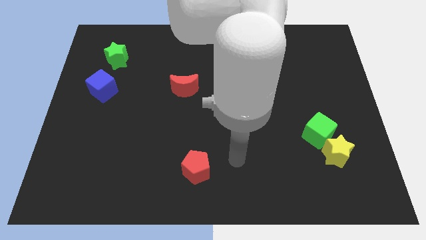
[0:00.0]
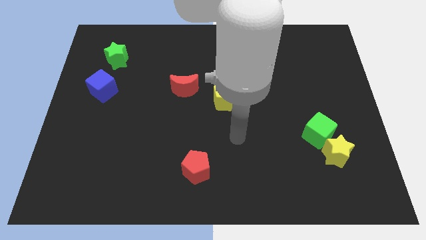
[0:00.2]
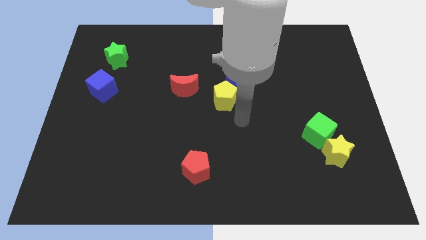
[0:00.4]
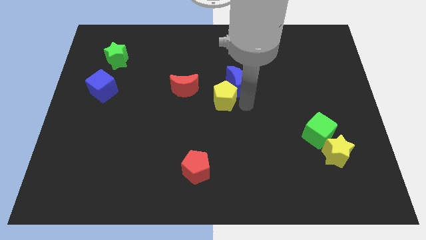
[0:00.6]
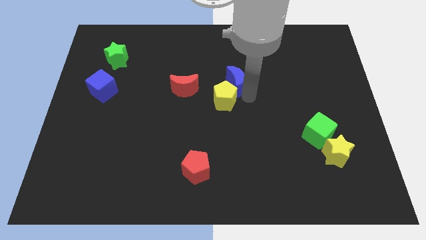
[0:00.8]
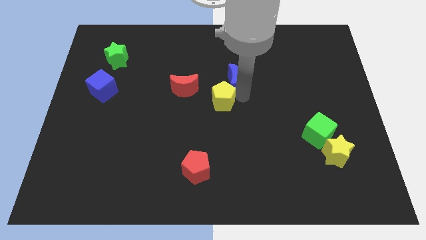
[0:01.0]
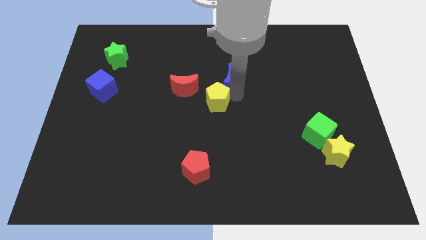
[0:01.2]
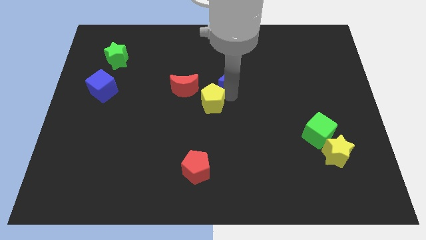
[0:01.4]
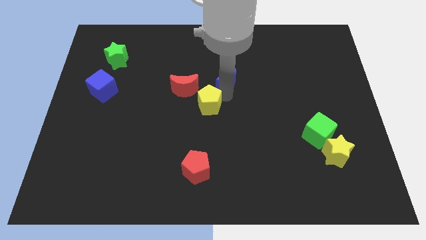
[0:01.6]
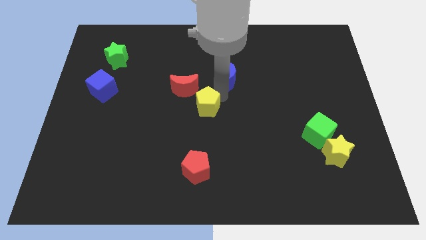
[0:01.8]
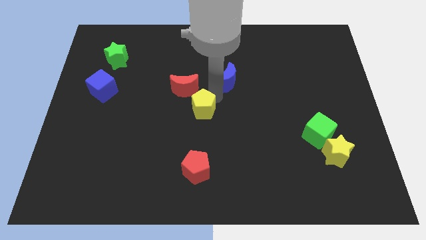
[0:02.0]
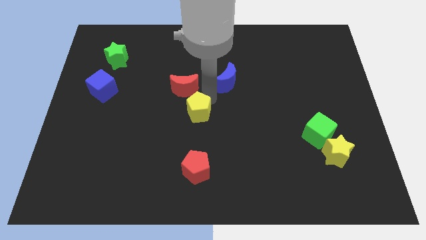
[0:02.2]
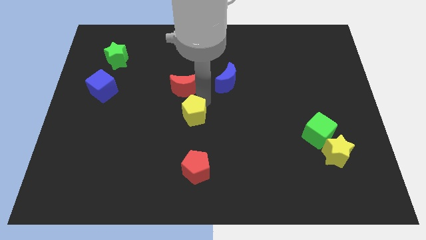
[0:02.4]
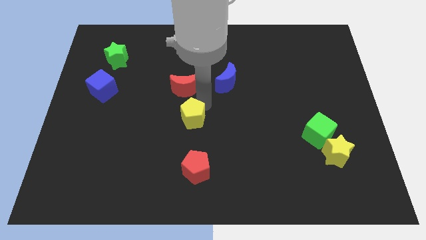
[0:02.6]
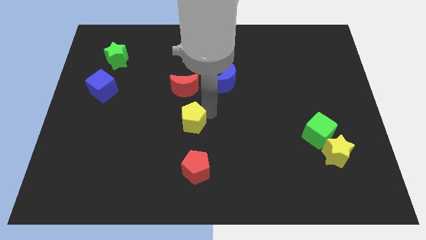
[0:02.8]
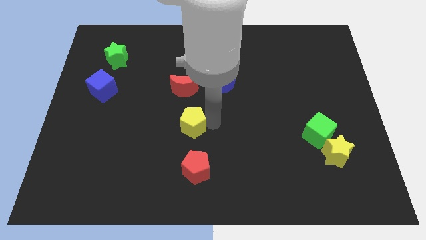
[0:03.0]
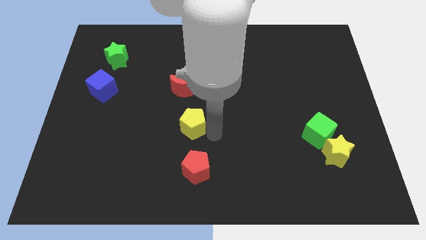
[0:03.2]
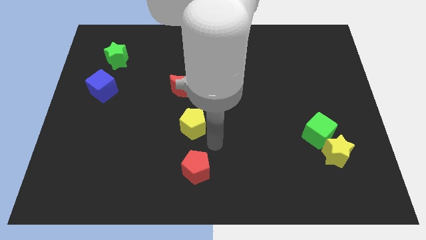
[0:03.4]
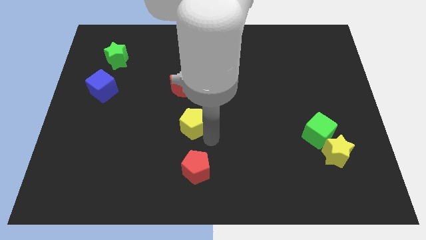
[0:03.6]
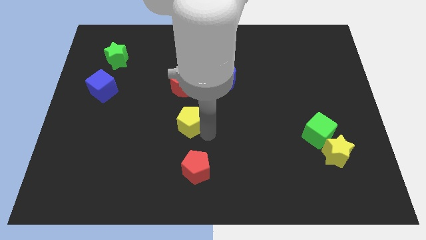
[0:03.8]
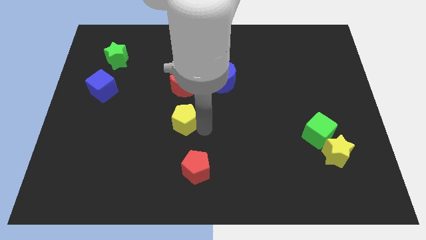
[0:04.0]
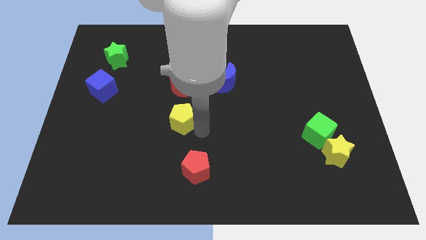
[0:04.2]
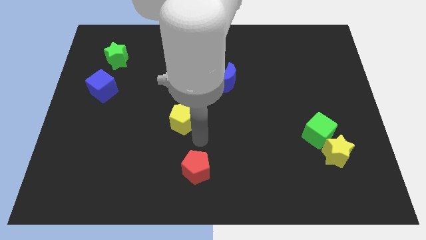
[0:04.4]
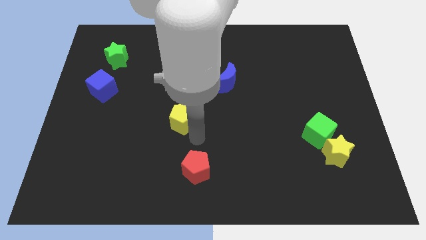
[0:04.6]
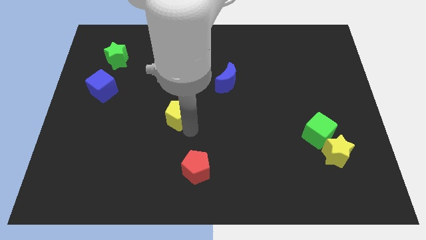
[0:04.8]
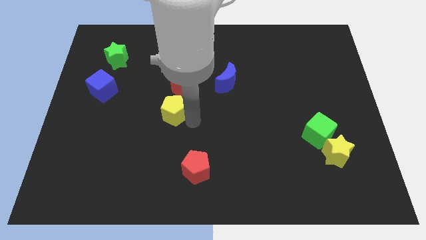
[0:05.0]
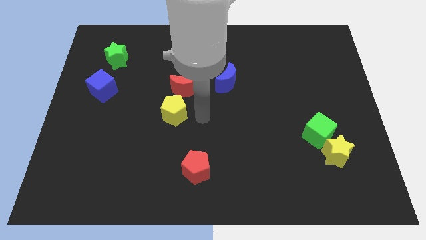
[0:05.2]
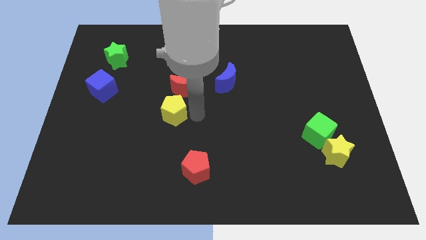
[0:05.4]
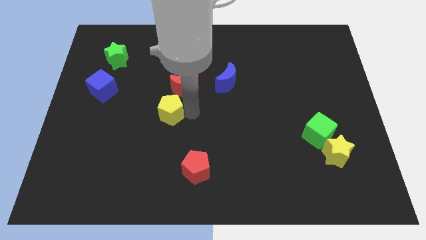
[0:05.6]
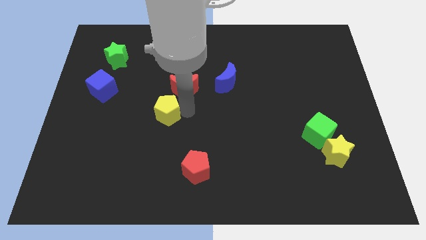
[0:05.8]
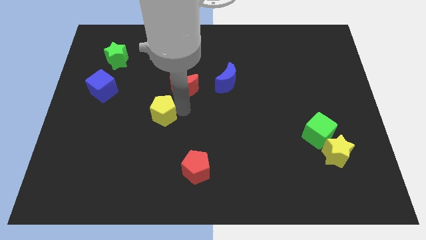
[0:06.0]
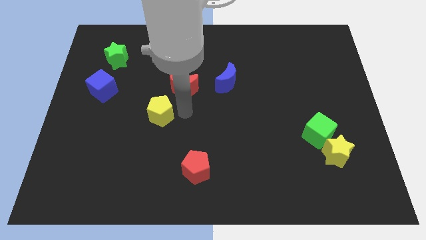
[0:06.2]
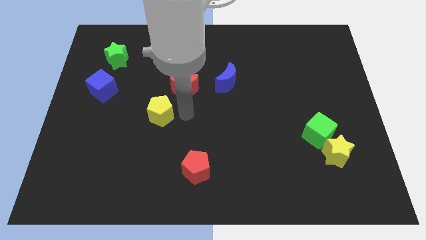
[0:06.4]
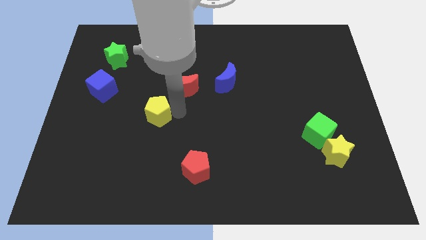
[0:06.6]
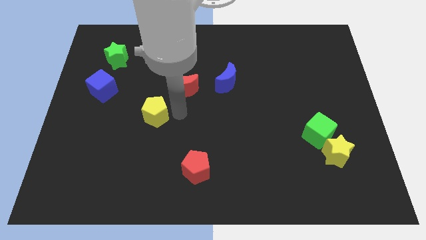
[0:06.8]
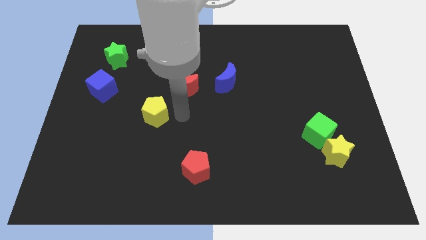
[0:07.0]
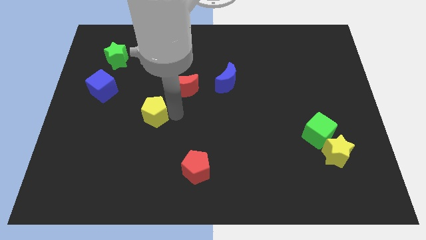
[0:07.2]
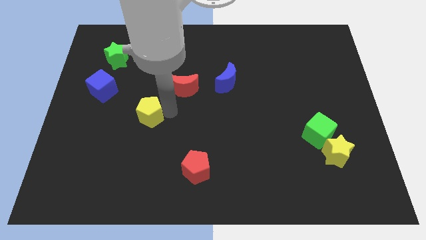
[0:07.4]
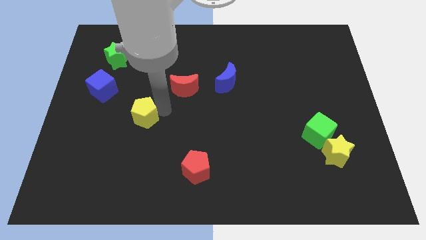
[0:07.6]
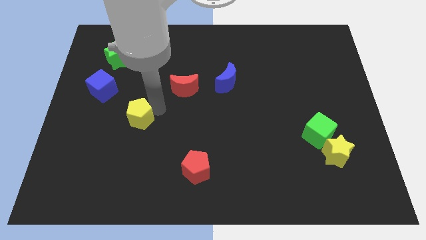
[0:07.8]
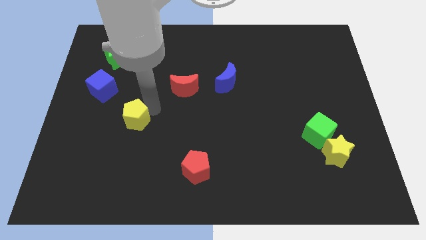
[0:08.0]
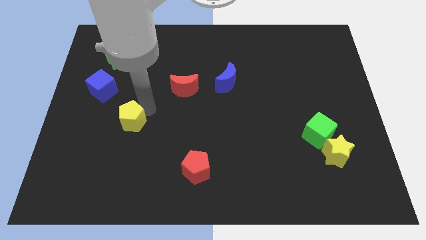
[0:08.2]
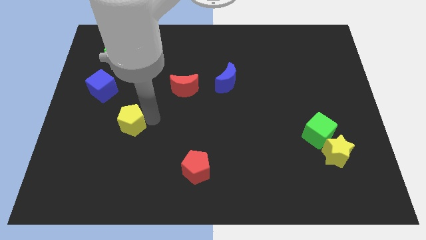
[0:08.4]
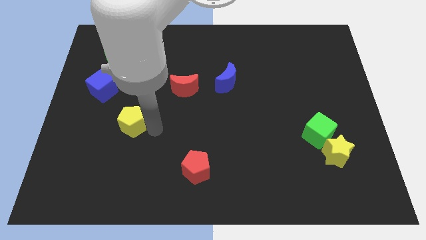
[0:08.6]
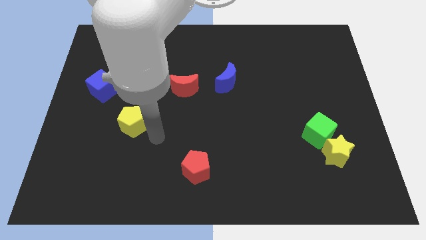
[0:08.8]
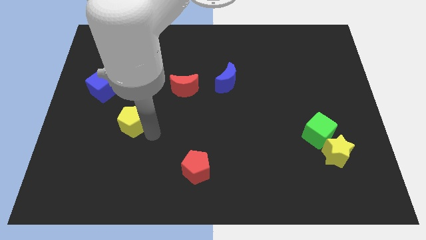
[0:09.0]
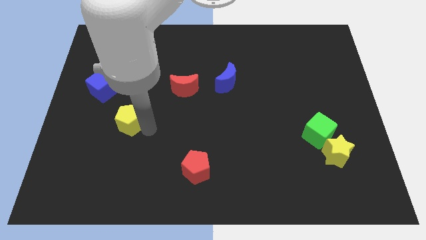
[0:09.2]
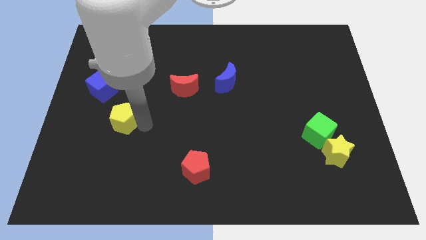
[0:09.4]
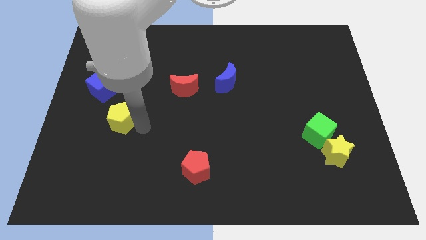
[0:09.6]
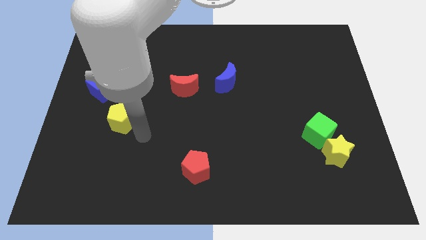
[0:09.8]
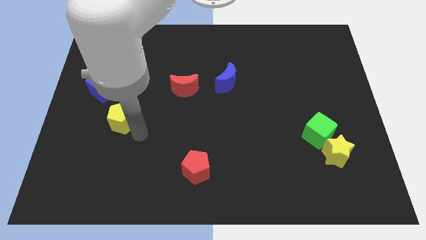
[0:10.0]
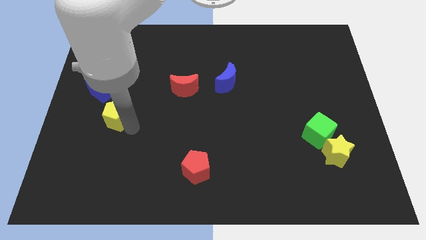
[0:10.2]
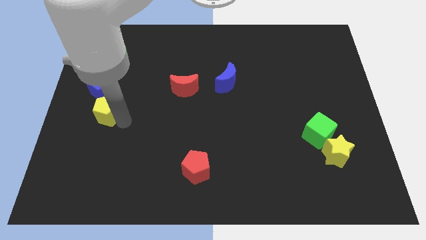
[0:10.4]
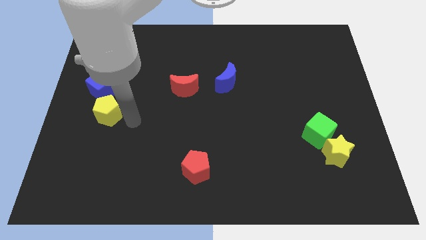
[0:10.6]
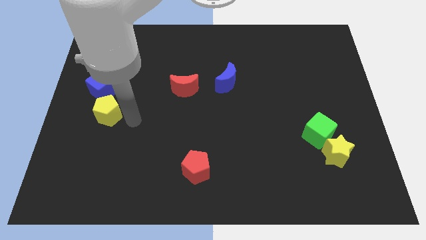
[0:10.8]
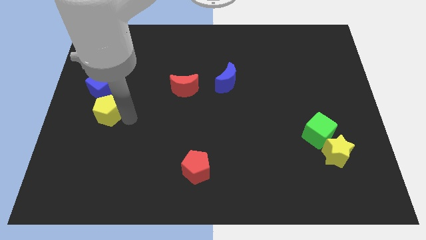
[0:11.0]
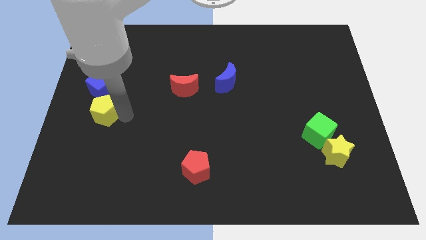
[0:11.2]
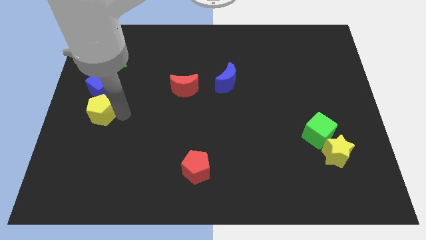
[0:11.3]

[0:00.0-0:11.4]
slide the yellow pentagon to the left side of the board

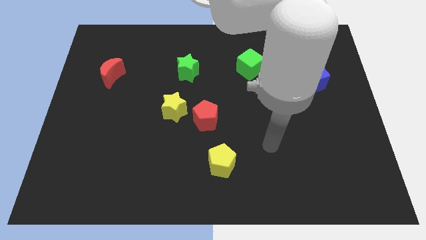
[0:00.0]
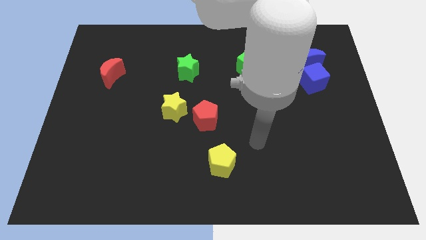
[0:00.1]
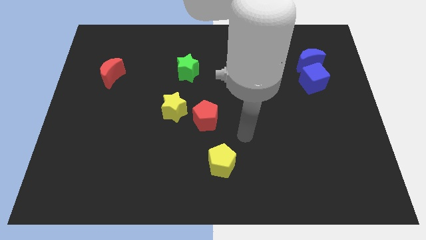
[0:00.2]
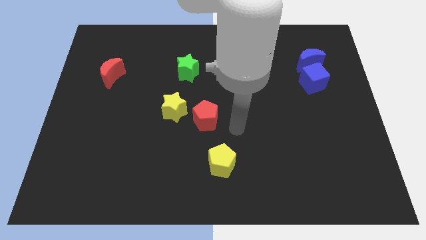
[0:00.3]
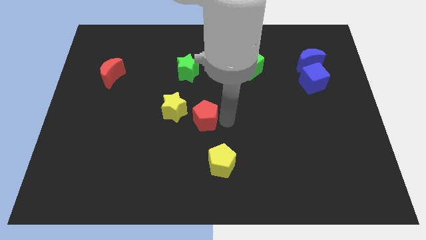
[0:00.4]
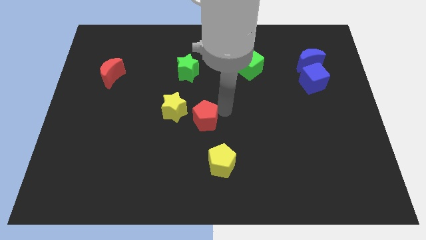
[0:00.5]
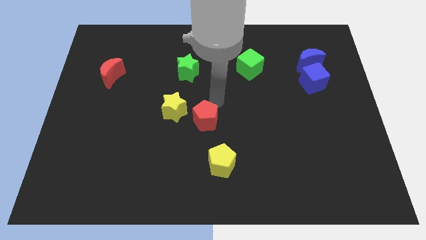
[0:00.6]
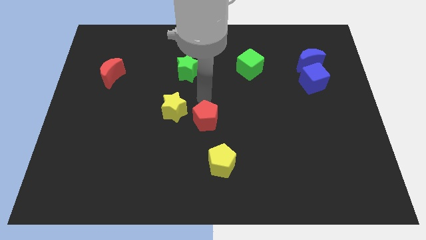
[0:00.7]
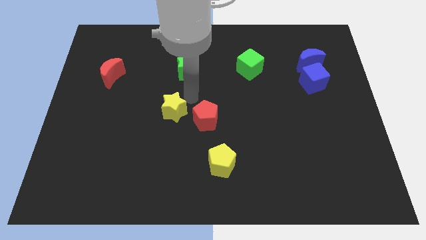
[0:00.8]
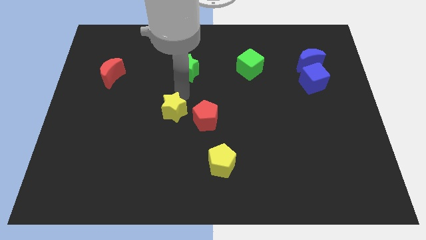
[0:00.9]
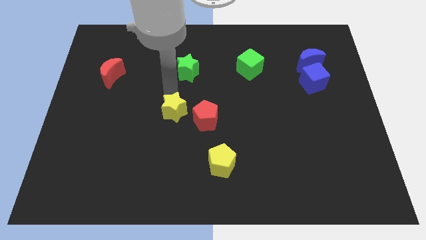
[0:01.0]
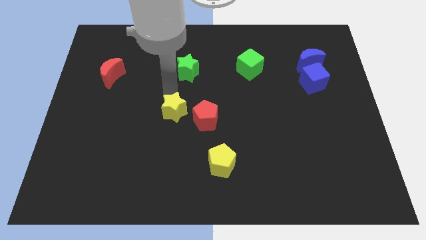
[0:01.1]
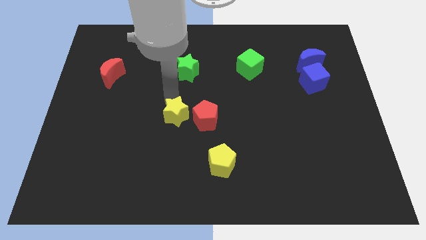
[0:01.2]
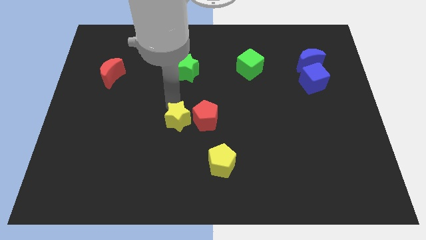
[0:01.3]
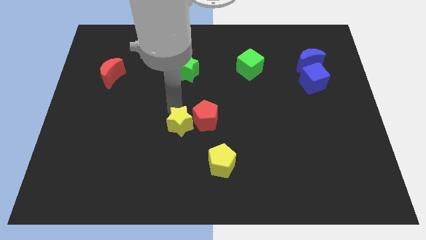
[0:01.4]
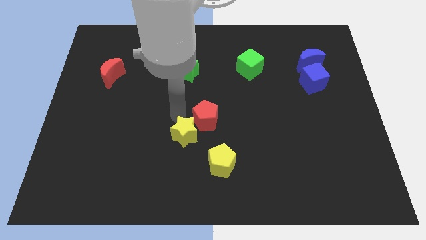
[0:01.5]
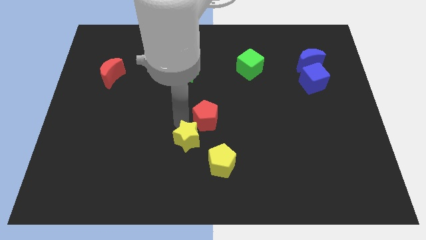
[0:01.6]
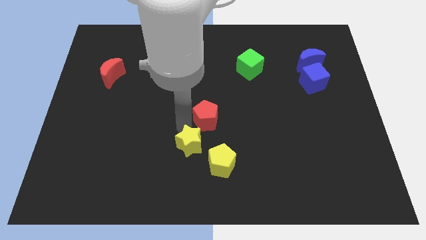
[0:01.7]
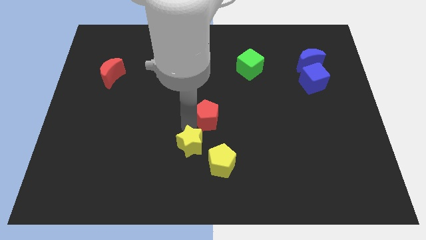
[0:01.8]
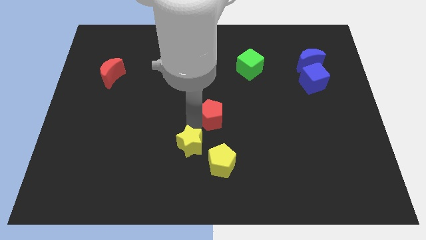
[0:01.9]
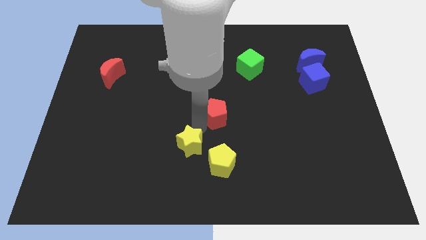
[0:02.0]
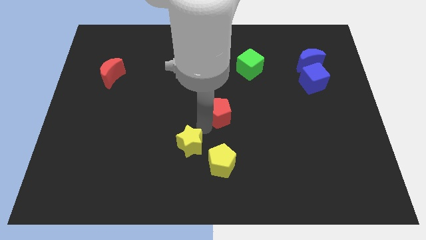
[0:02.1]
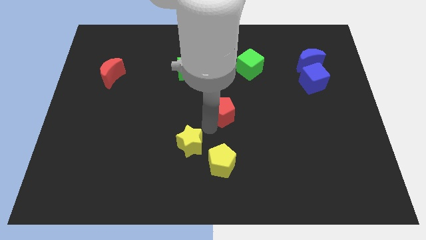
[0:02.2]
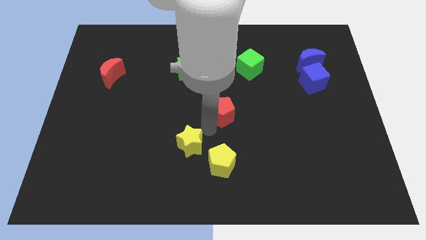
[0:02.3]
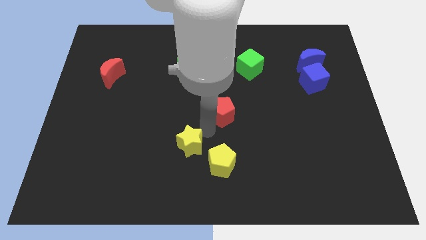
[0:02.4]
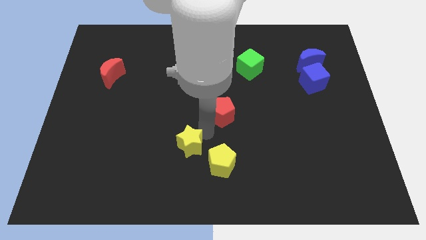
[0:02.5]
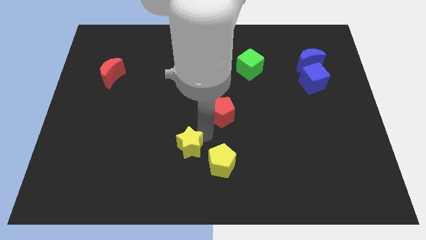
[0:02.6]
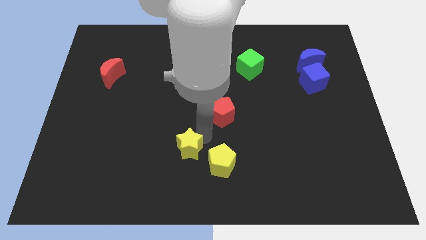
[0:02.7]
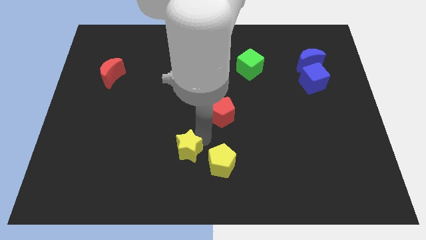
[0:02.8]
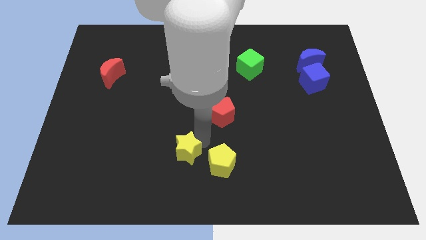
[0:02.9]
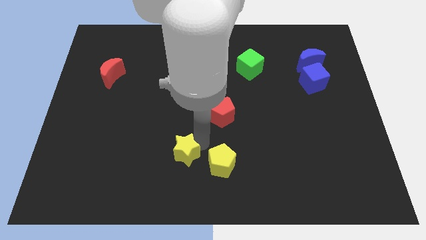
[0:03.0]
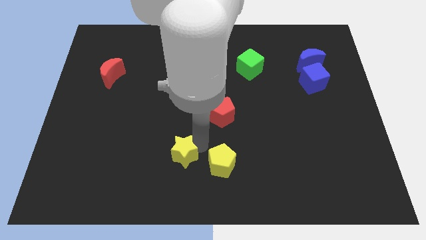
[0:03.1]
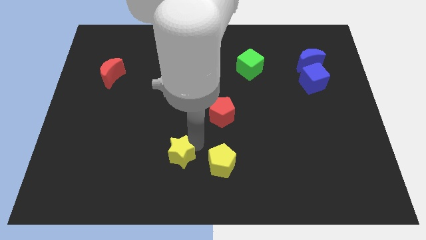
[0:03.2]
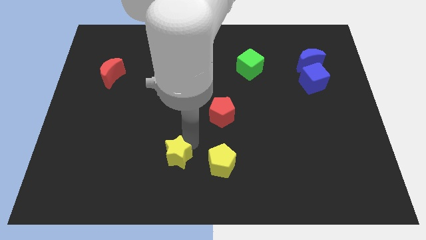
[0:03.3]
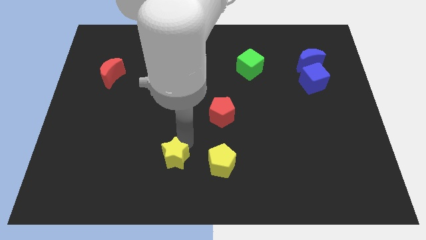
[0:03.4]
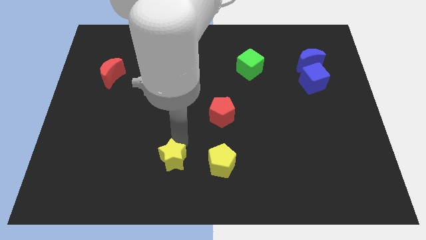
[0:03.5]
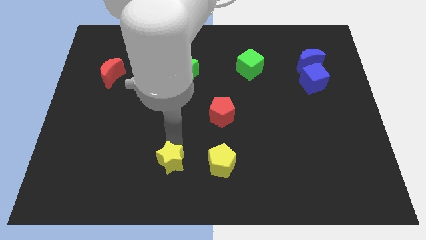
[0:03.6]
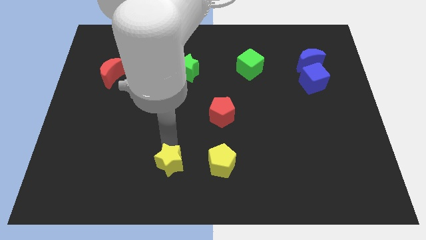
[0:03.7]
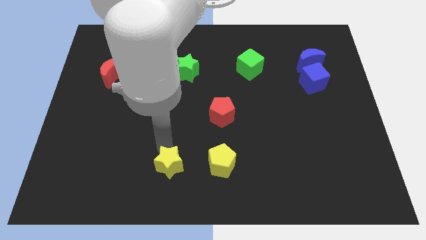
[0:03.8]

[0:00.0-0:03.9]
push the yellow star to the bottom side
